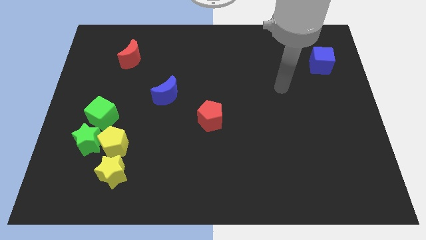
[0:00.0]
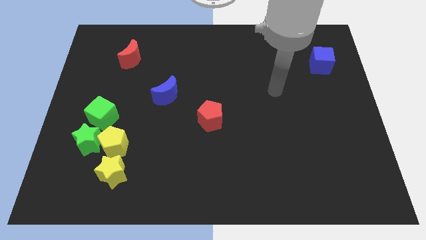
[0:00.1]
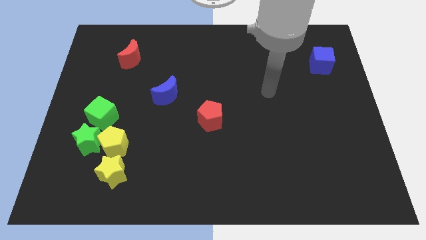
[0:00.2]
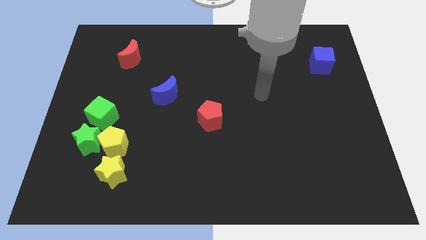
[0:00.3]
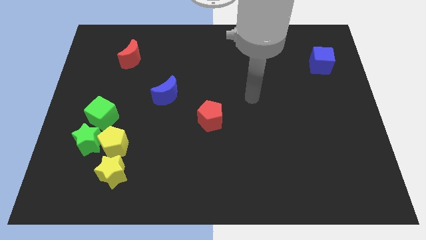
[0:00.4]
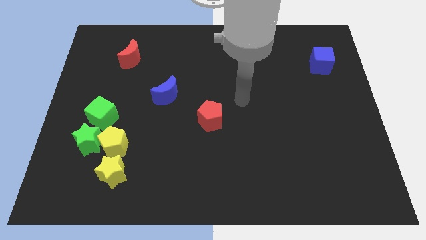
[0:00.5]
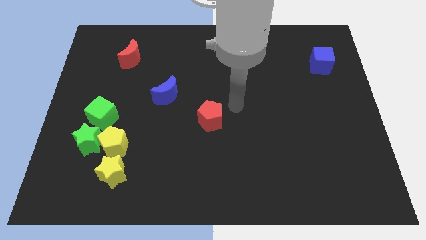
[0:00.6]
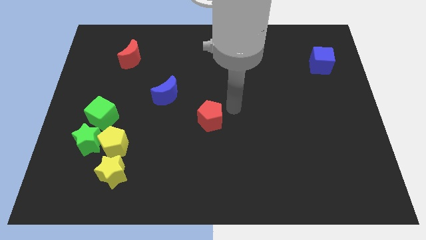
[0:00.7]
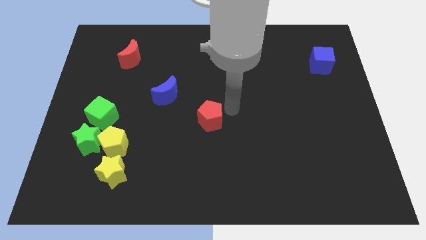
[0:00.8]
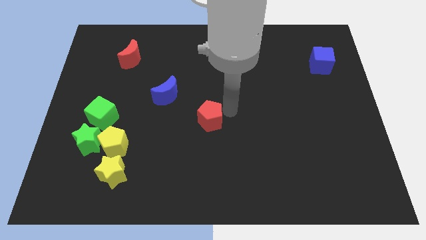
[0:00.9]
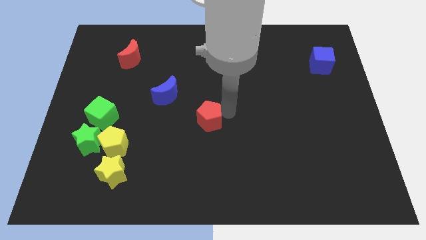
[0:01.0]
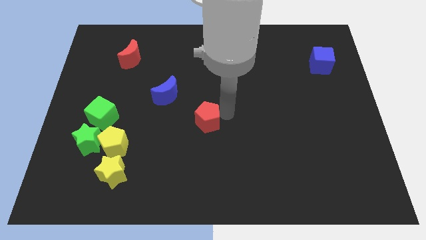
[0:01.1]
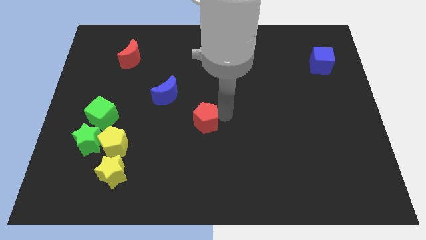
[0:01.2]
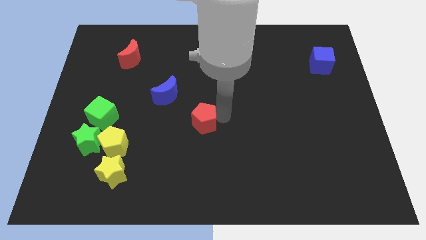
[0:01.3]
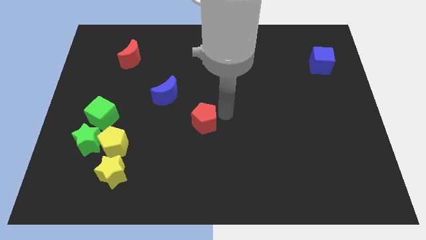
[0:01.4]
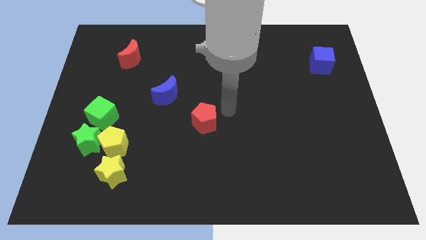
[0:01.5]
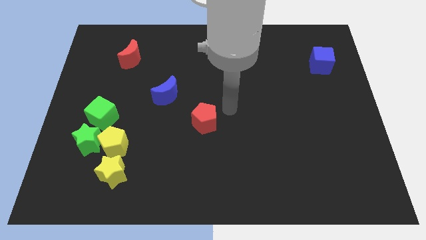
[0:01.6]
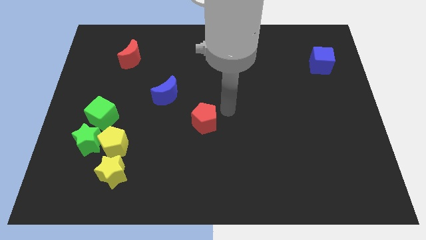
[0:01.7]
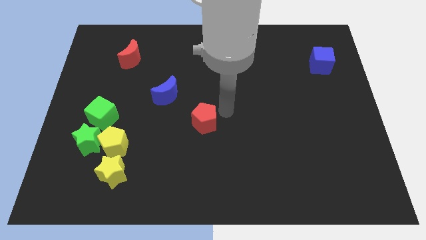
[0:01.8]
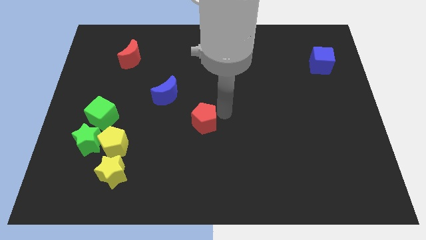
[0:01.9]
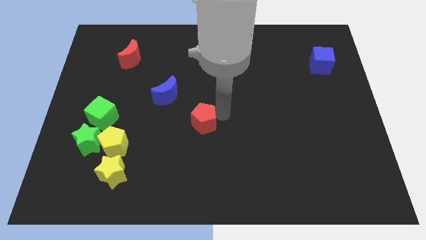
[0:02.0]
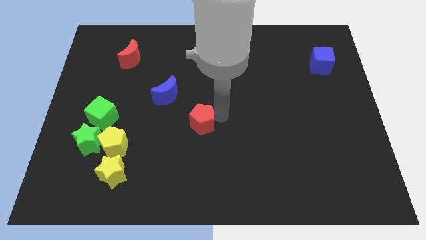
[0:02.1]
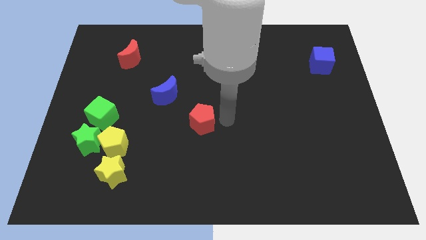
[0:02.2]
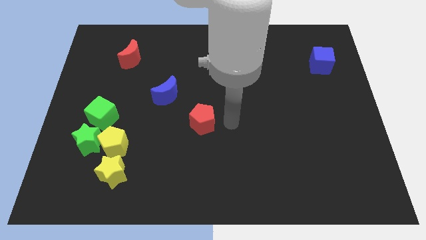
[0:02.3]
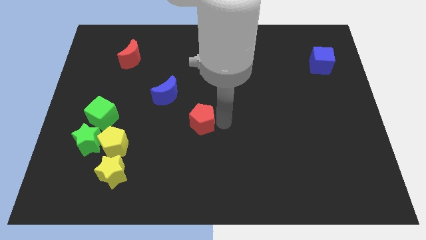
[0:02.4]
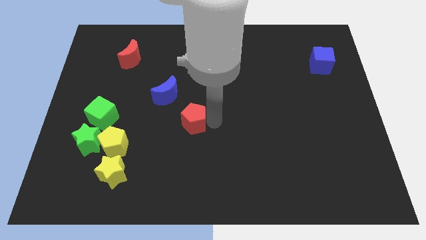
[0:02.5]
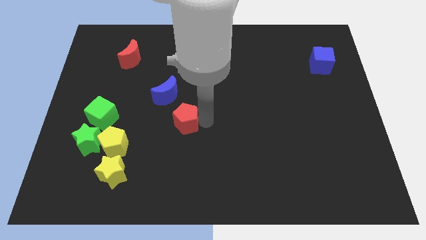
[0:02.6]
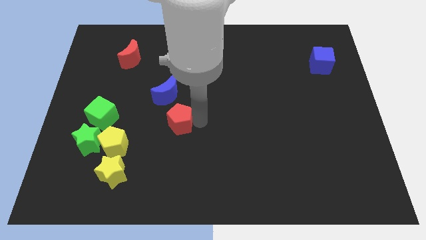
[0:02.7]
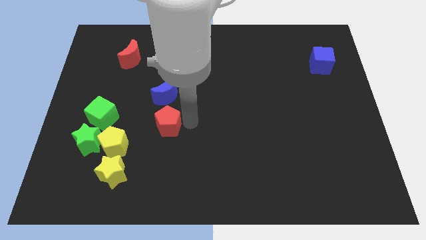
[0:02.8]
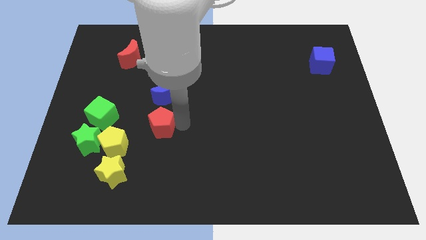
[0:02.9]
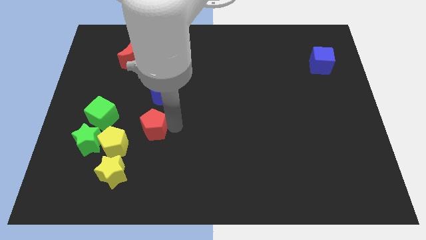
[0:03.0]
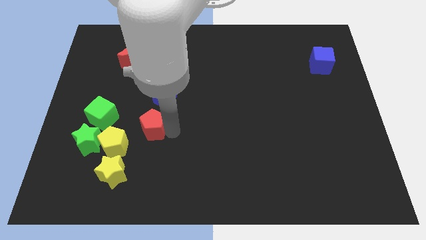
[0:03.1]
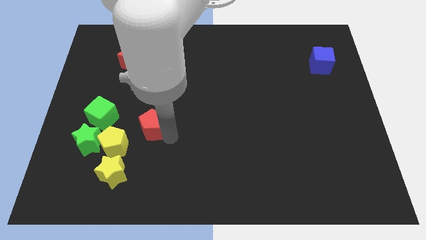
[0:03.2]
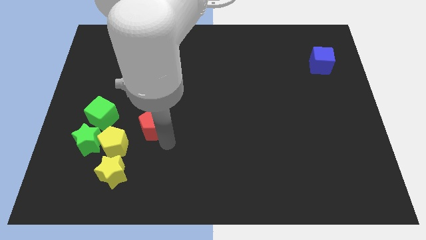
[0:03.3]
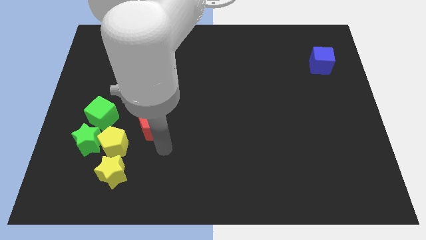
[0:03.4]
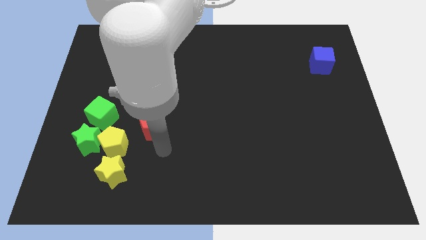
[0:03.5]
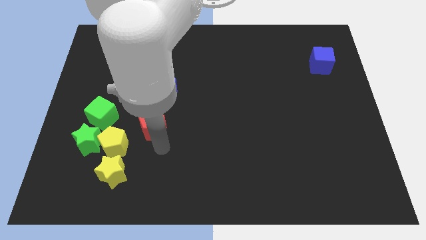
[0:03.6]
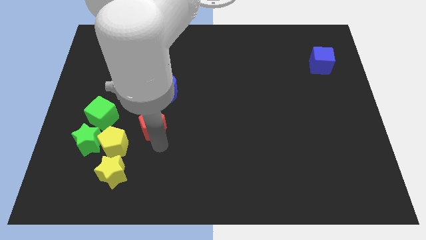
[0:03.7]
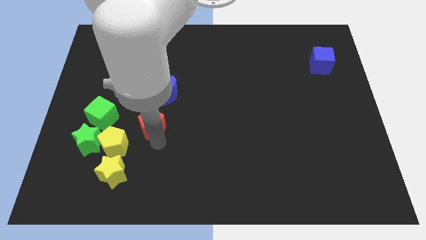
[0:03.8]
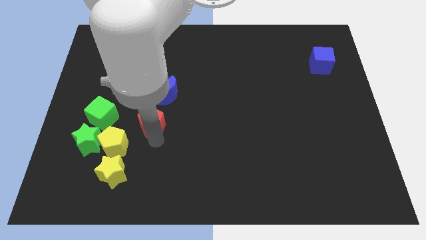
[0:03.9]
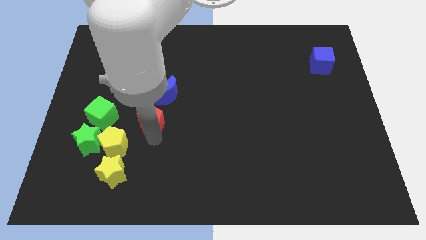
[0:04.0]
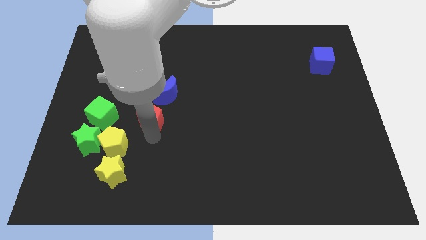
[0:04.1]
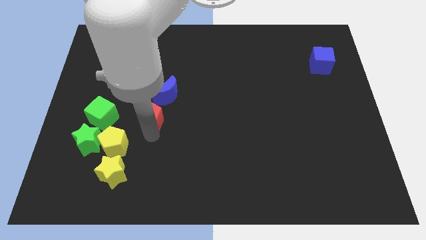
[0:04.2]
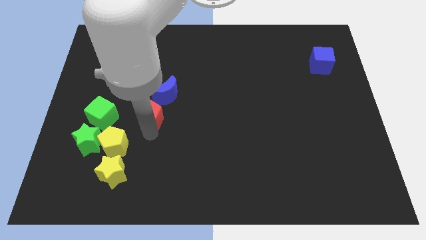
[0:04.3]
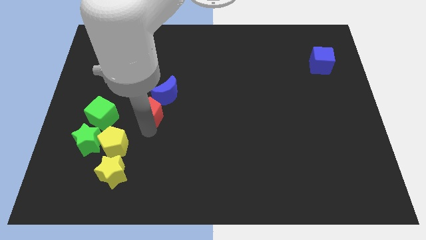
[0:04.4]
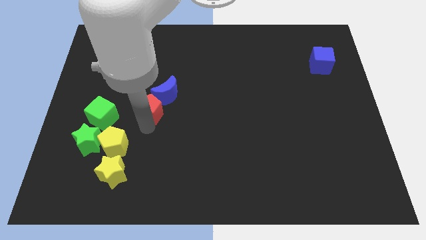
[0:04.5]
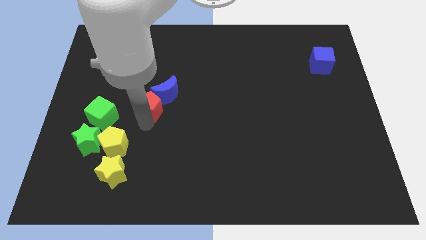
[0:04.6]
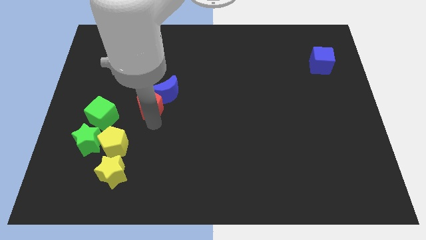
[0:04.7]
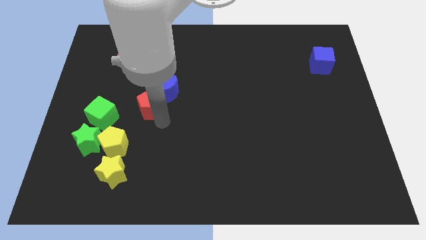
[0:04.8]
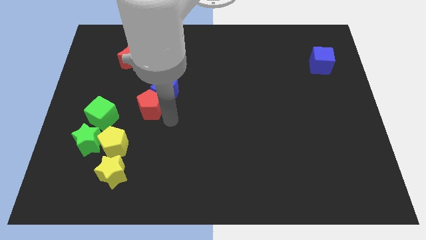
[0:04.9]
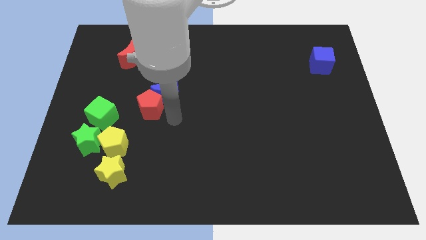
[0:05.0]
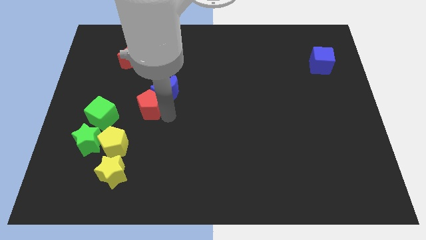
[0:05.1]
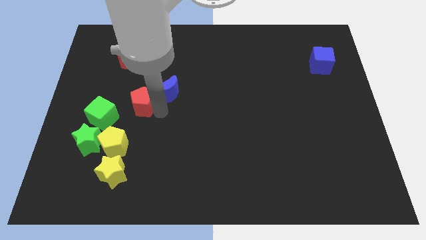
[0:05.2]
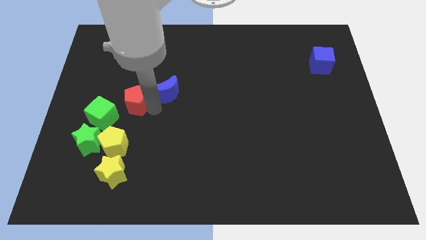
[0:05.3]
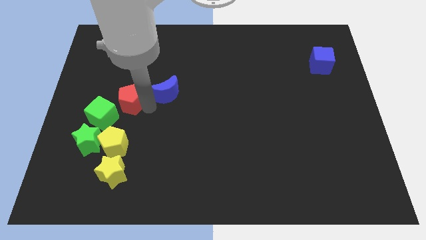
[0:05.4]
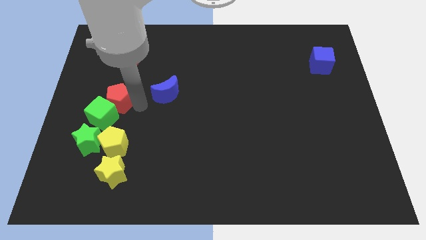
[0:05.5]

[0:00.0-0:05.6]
move the red pentagon to the top of the green cube

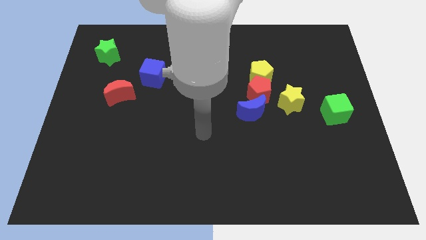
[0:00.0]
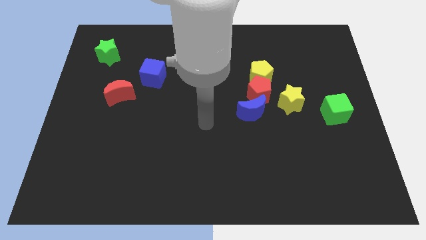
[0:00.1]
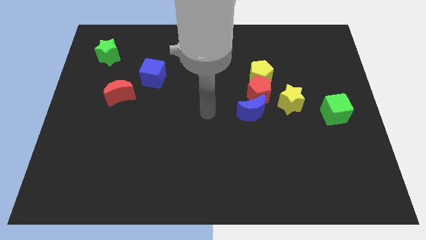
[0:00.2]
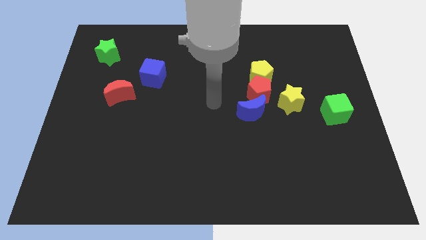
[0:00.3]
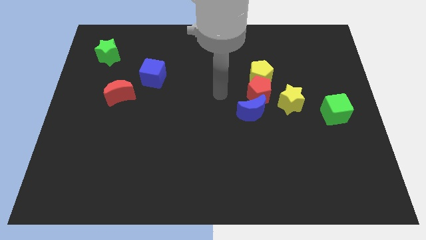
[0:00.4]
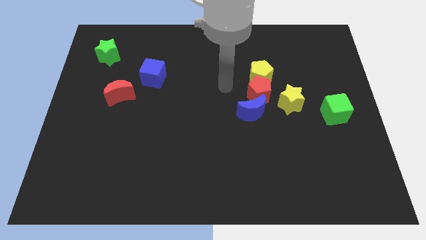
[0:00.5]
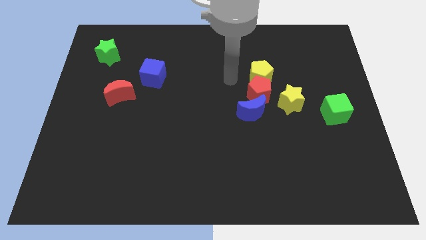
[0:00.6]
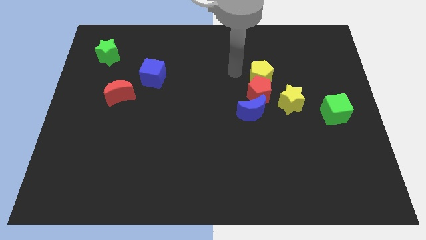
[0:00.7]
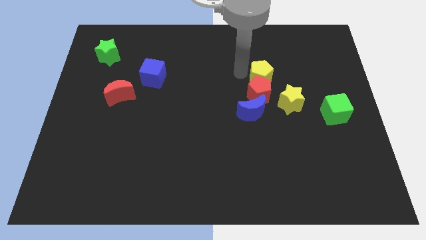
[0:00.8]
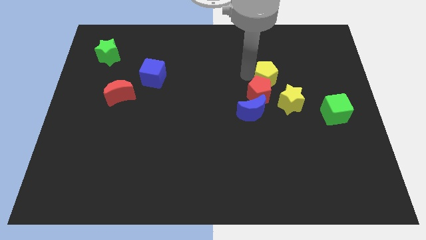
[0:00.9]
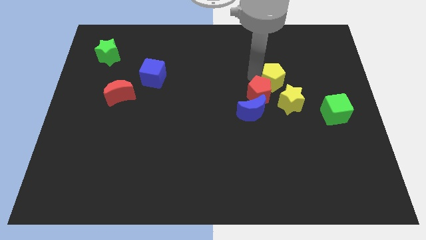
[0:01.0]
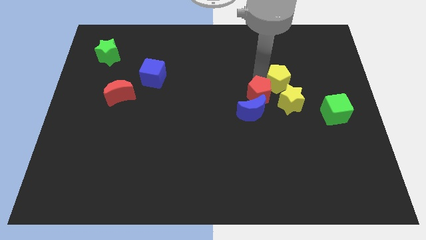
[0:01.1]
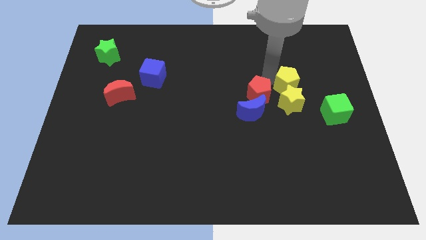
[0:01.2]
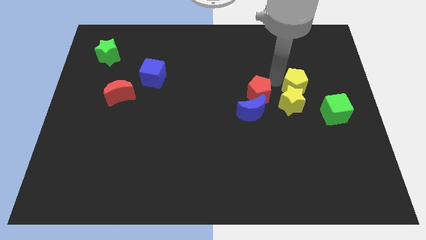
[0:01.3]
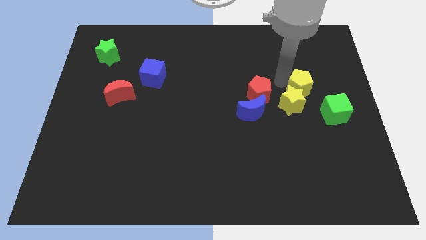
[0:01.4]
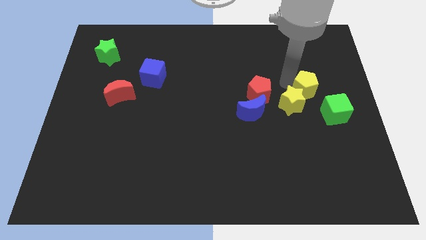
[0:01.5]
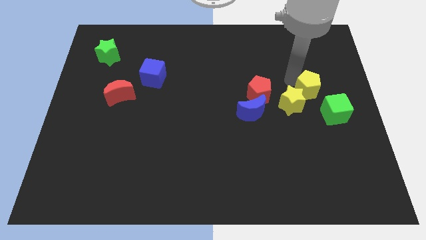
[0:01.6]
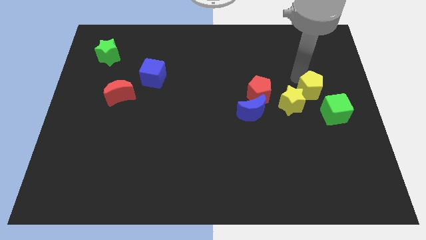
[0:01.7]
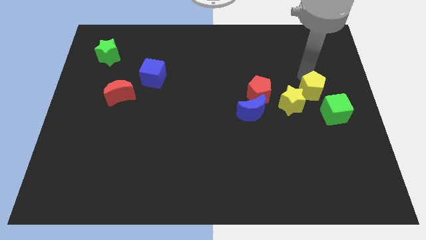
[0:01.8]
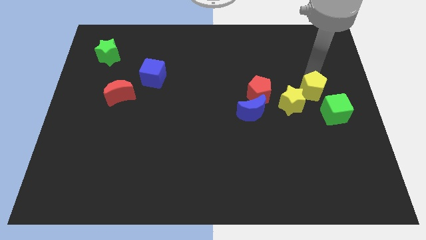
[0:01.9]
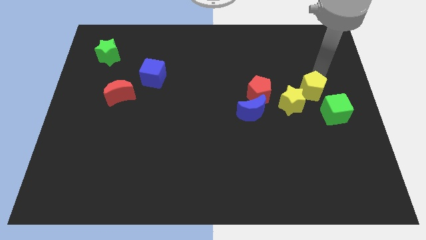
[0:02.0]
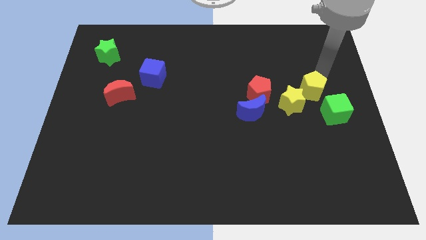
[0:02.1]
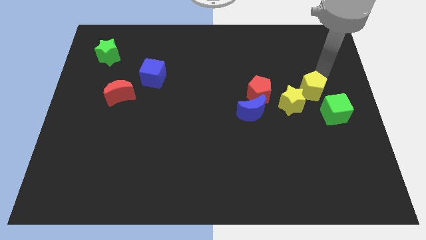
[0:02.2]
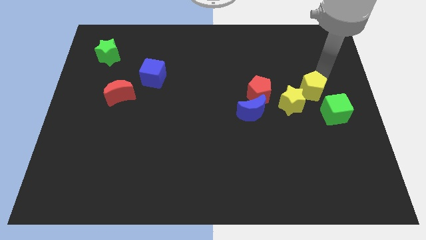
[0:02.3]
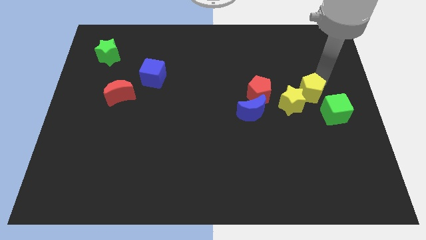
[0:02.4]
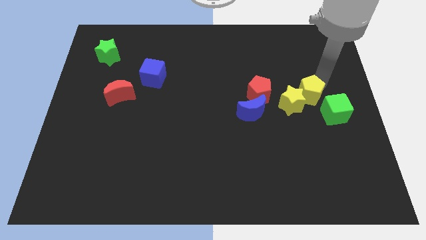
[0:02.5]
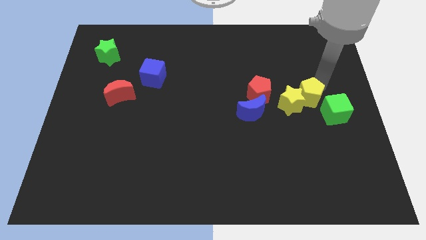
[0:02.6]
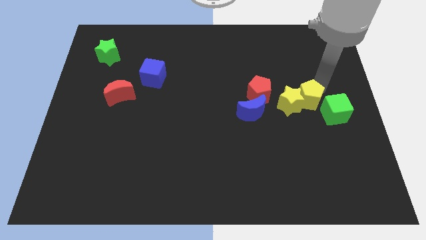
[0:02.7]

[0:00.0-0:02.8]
put the yellow pentagon just right of the blue moon
